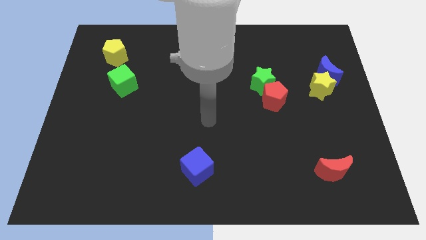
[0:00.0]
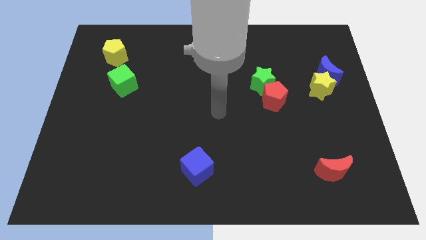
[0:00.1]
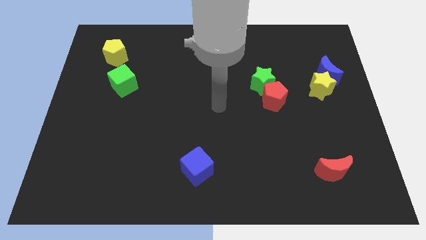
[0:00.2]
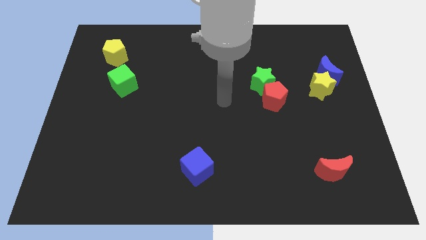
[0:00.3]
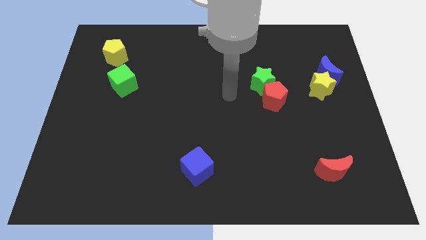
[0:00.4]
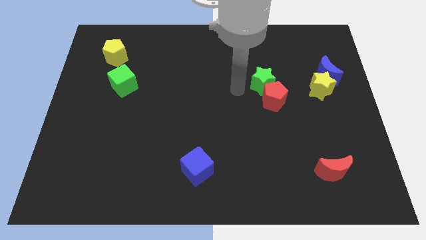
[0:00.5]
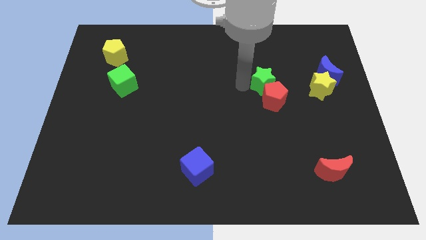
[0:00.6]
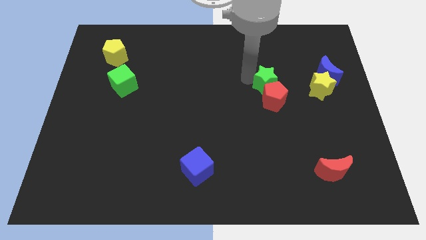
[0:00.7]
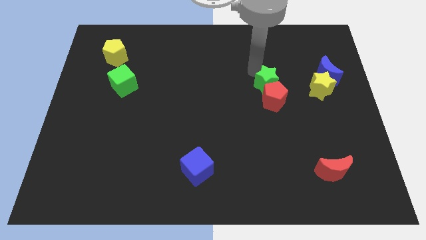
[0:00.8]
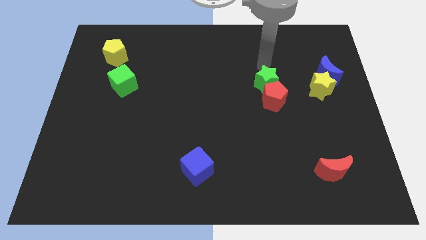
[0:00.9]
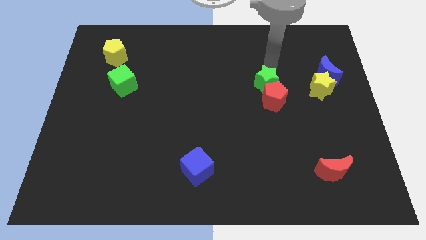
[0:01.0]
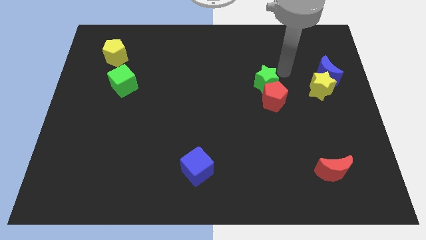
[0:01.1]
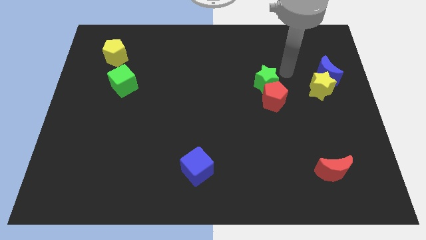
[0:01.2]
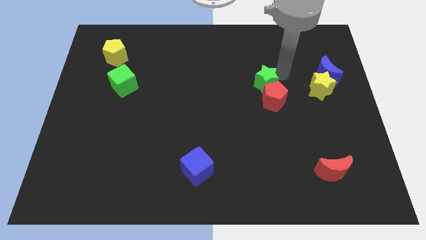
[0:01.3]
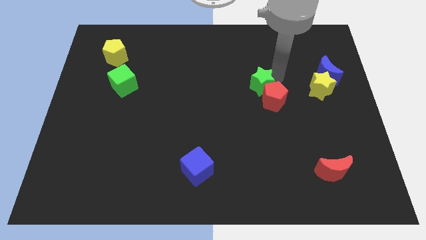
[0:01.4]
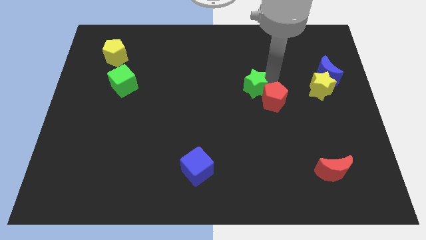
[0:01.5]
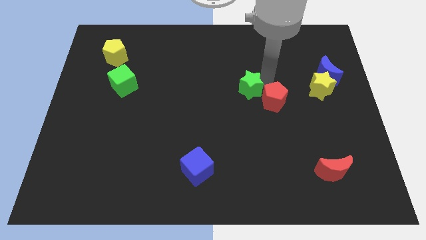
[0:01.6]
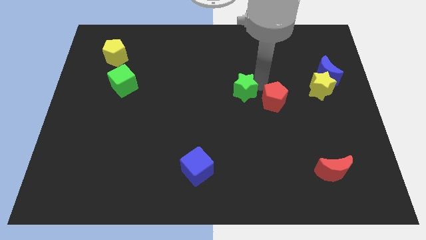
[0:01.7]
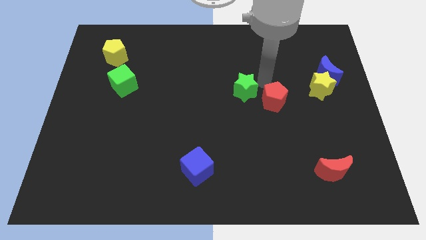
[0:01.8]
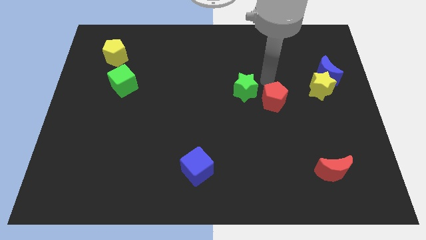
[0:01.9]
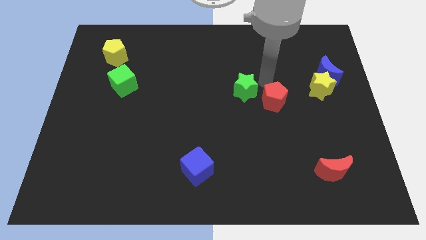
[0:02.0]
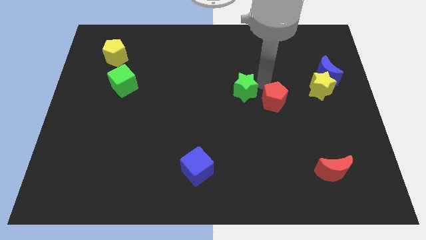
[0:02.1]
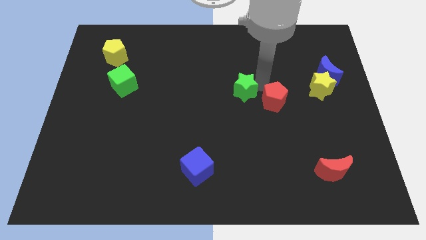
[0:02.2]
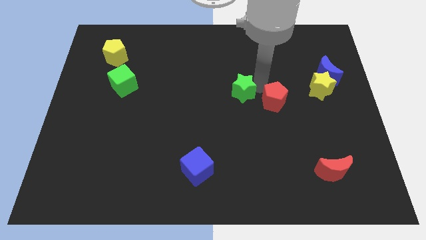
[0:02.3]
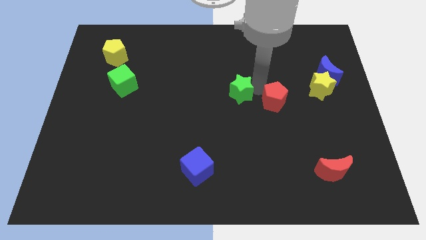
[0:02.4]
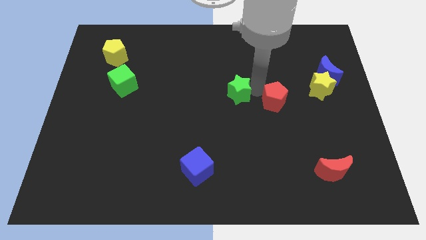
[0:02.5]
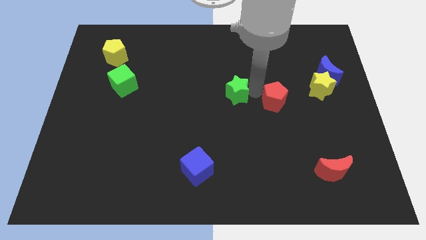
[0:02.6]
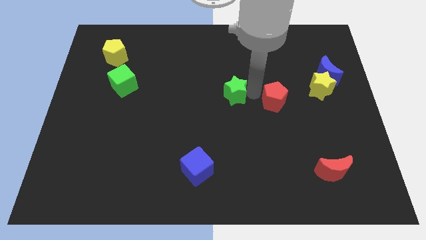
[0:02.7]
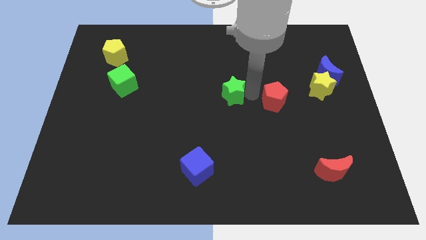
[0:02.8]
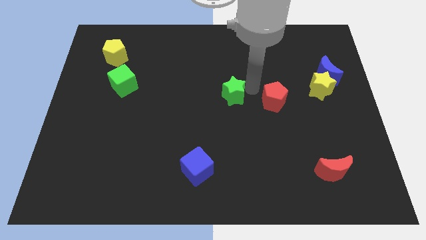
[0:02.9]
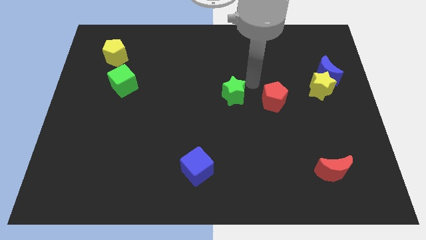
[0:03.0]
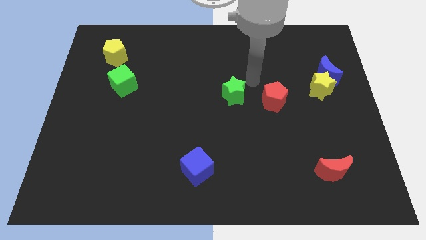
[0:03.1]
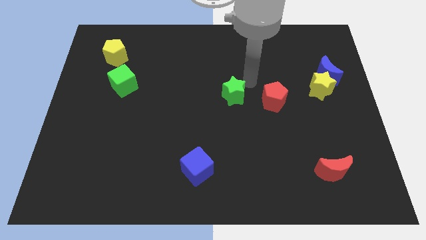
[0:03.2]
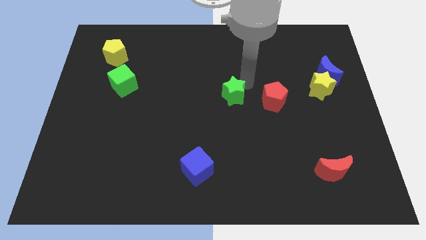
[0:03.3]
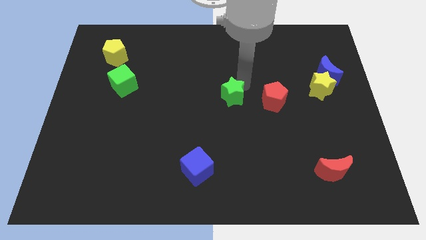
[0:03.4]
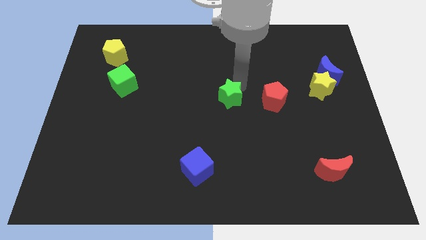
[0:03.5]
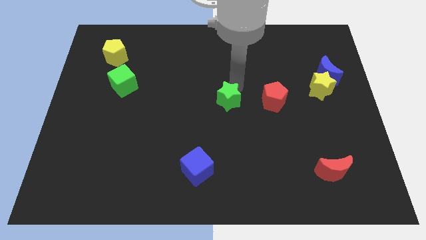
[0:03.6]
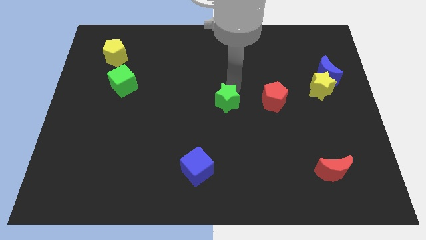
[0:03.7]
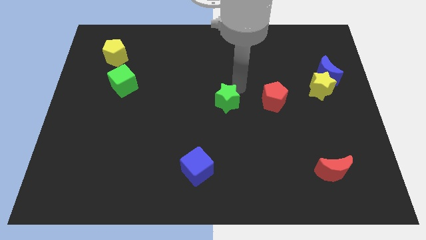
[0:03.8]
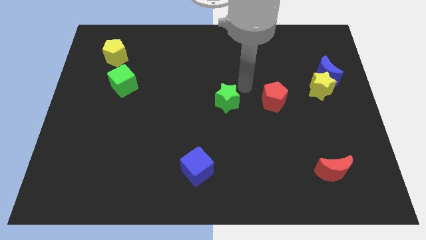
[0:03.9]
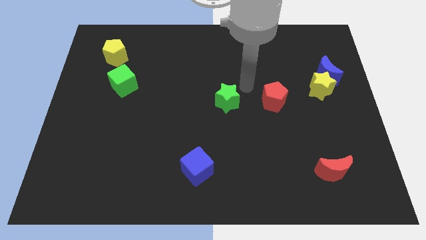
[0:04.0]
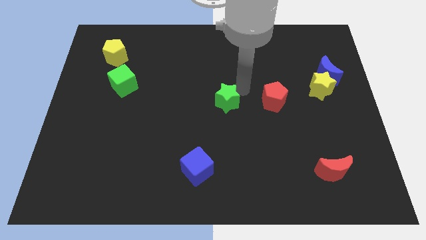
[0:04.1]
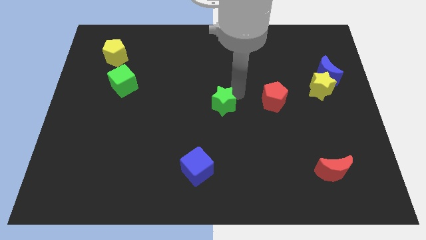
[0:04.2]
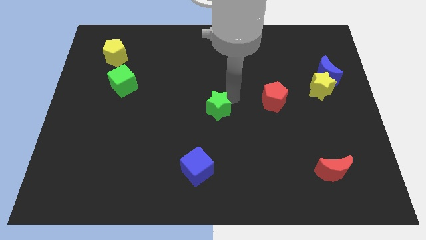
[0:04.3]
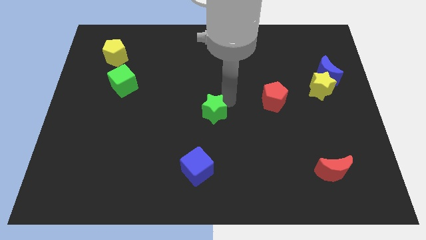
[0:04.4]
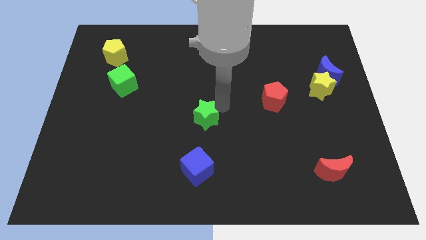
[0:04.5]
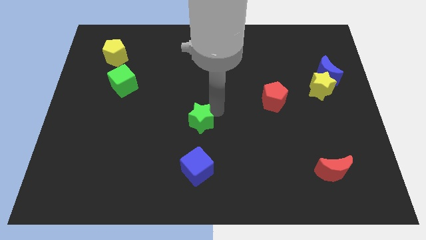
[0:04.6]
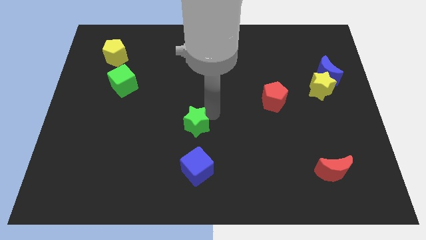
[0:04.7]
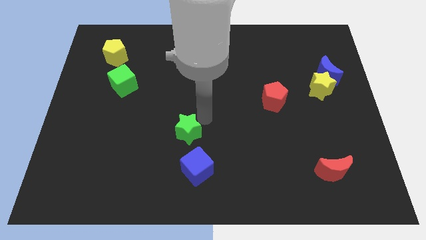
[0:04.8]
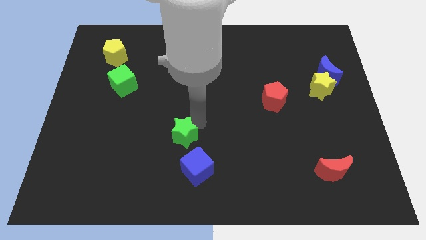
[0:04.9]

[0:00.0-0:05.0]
slide the green star to the top left of the blue cube

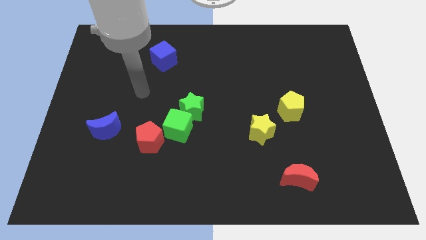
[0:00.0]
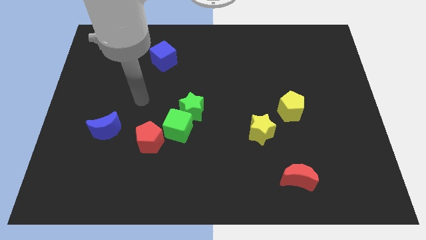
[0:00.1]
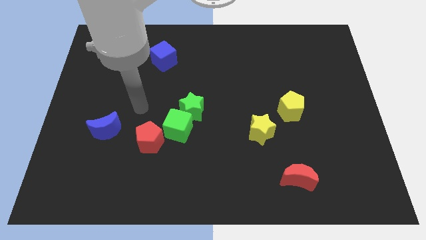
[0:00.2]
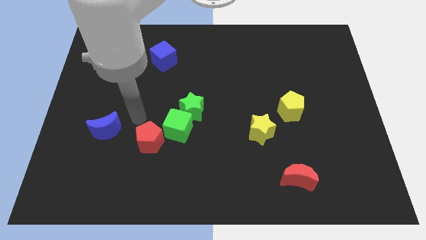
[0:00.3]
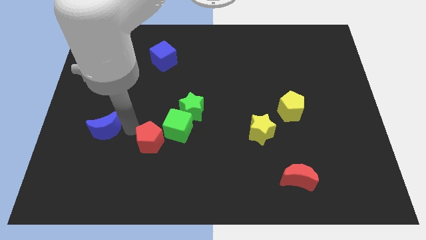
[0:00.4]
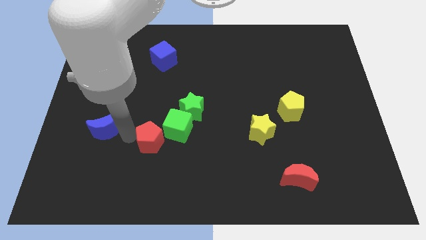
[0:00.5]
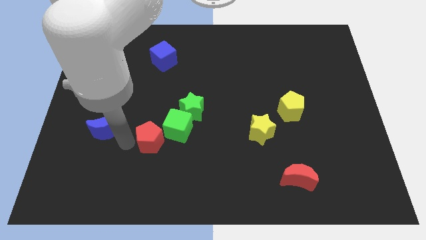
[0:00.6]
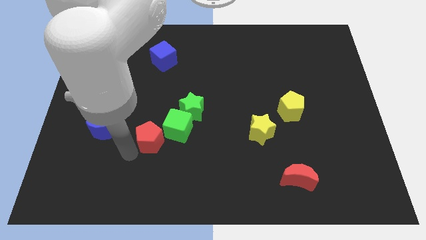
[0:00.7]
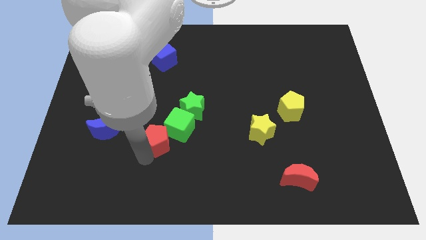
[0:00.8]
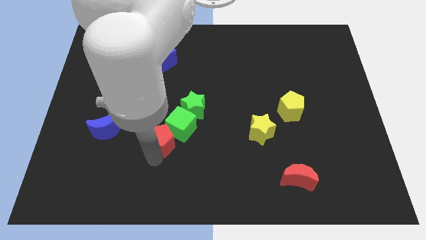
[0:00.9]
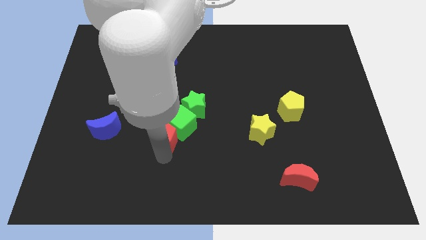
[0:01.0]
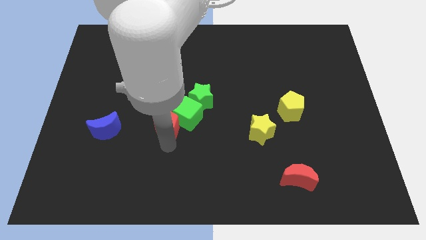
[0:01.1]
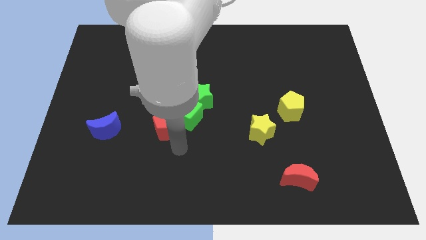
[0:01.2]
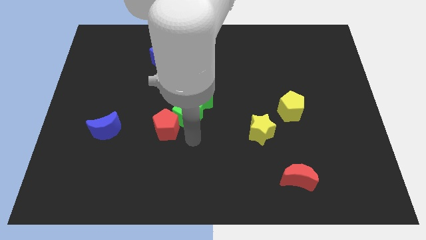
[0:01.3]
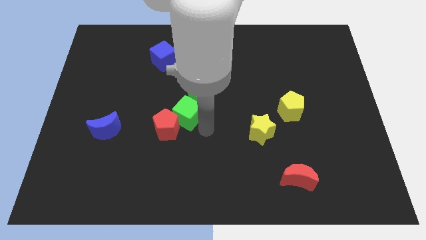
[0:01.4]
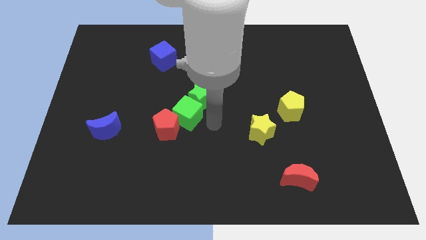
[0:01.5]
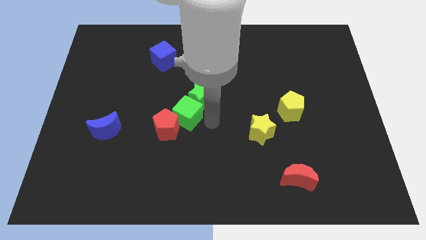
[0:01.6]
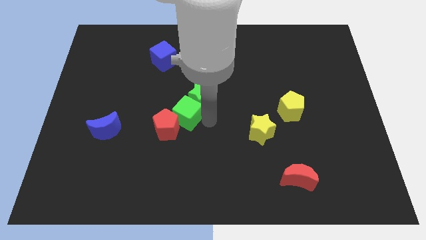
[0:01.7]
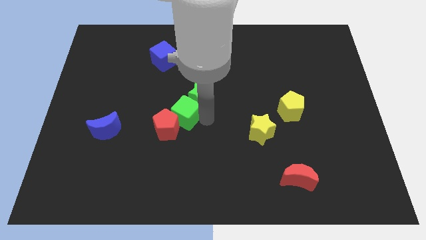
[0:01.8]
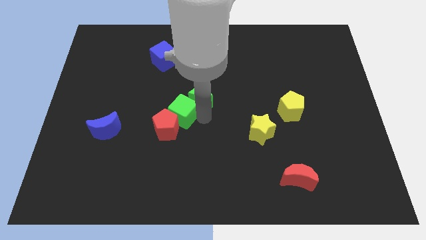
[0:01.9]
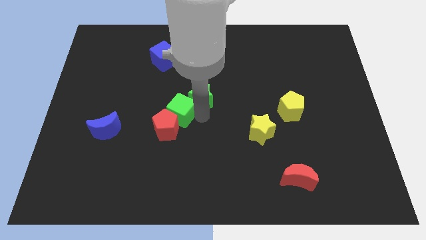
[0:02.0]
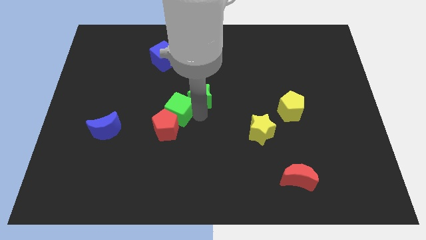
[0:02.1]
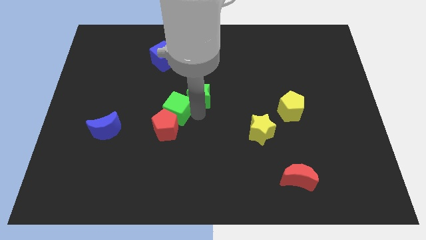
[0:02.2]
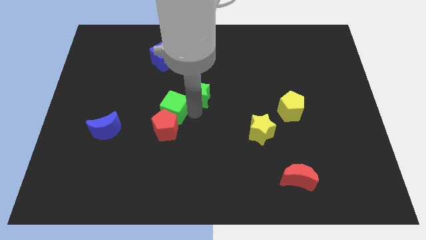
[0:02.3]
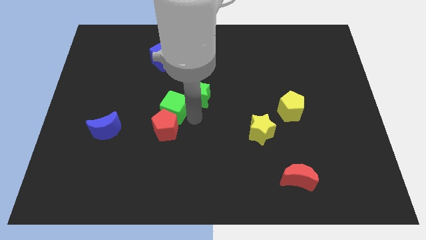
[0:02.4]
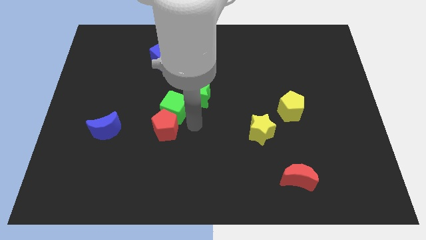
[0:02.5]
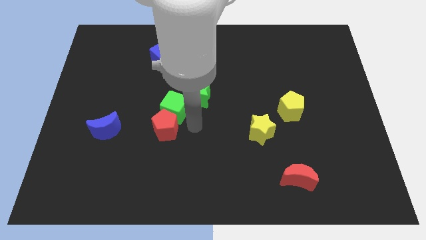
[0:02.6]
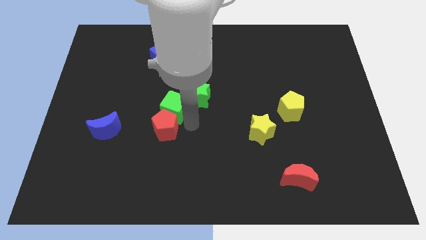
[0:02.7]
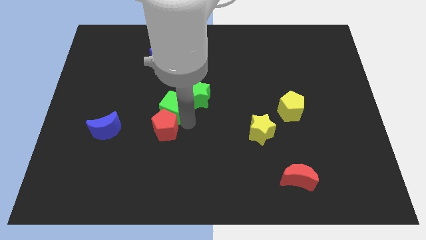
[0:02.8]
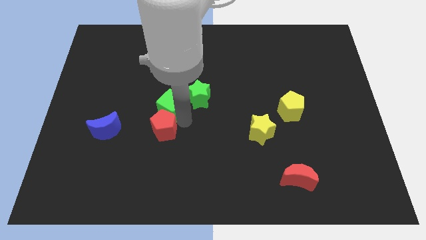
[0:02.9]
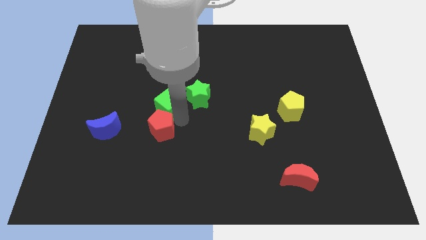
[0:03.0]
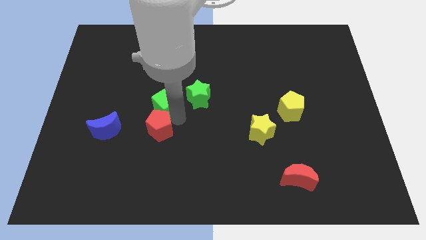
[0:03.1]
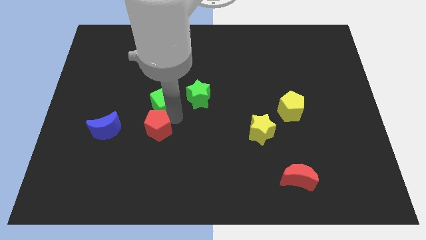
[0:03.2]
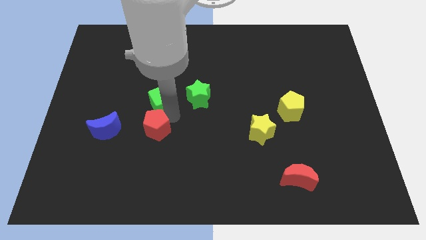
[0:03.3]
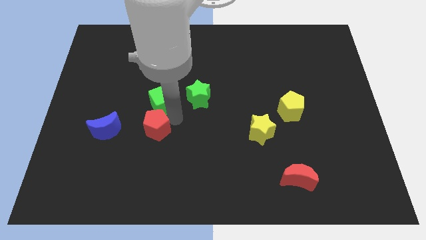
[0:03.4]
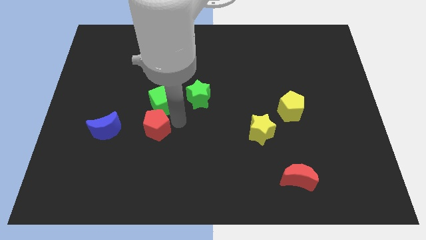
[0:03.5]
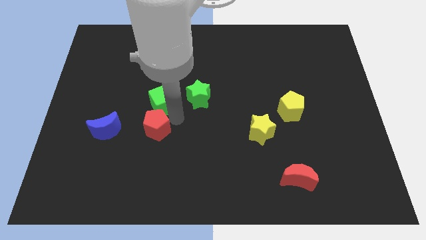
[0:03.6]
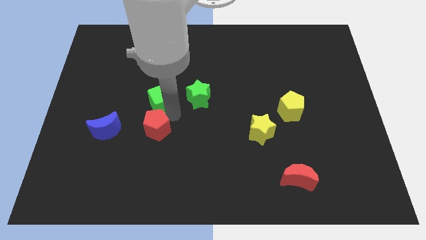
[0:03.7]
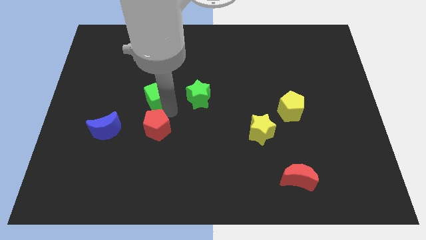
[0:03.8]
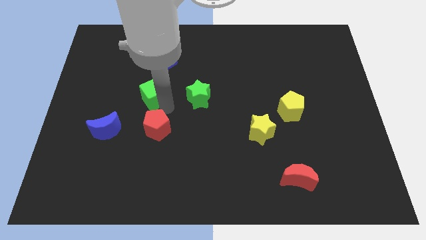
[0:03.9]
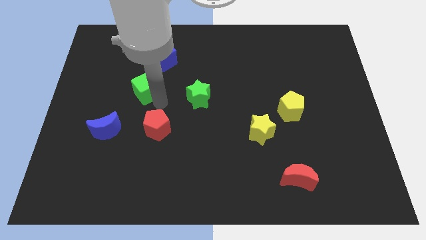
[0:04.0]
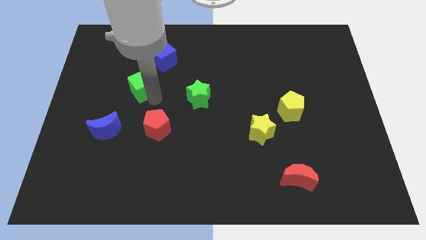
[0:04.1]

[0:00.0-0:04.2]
push the green cube to the bottom left side of the blue cube
